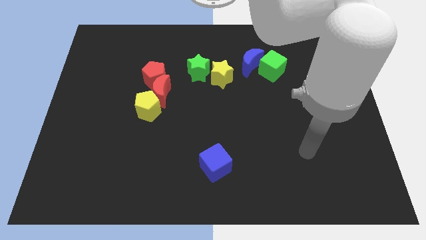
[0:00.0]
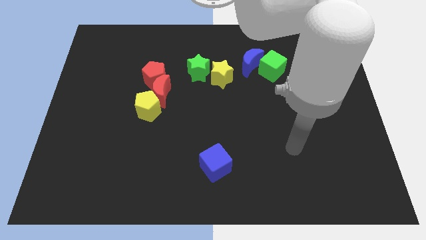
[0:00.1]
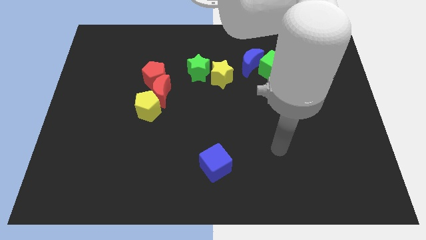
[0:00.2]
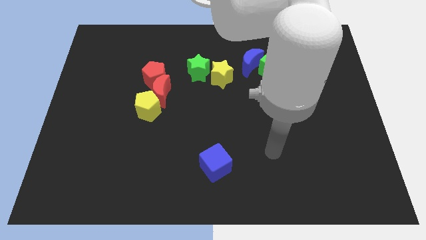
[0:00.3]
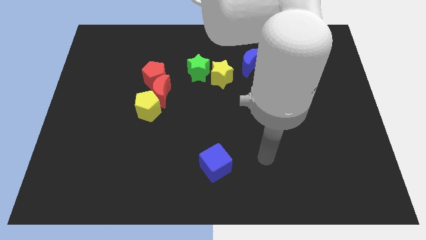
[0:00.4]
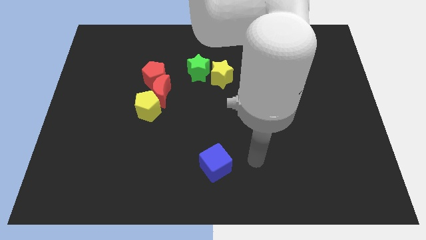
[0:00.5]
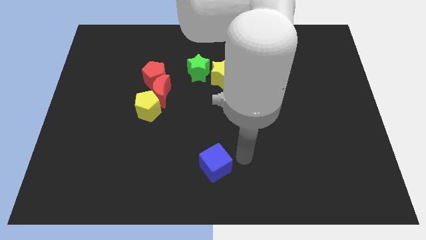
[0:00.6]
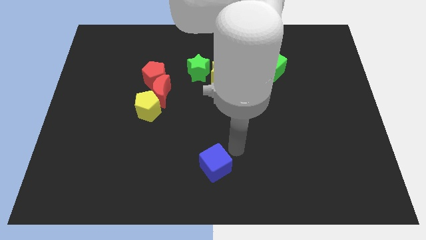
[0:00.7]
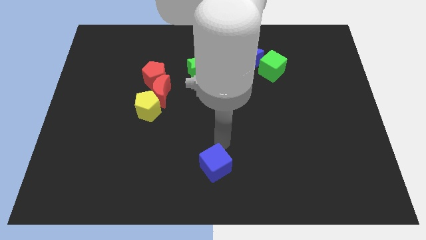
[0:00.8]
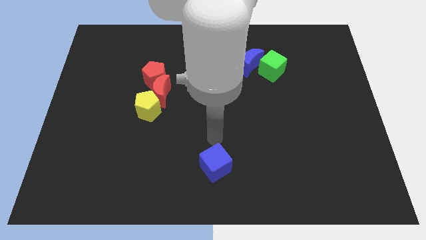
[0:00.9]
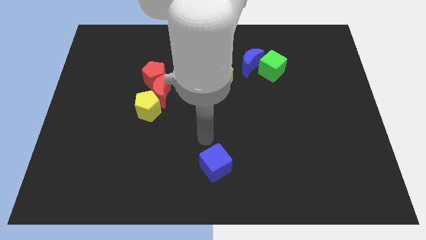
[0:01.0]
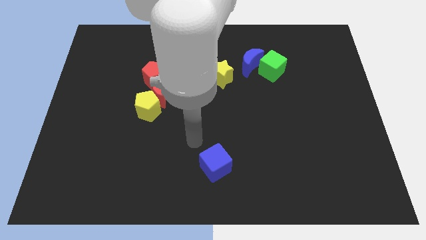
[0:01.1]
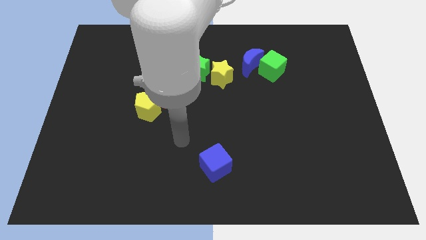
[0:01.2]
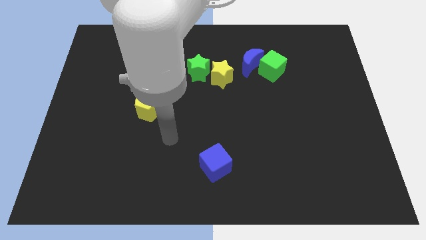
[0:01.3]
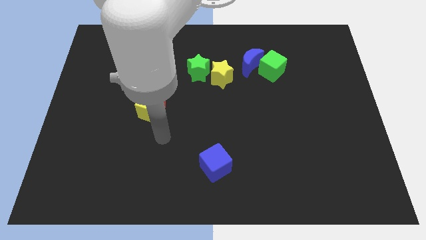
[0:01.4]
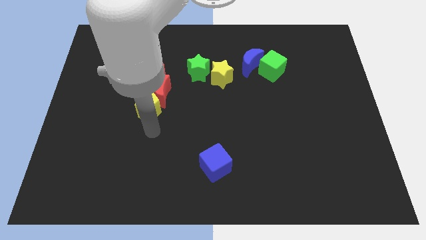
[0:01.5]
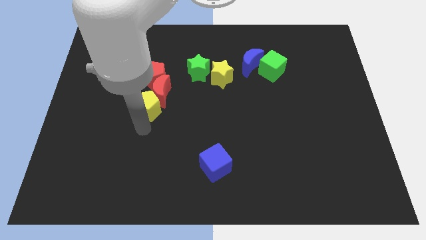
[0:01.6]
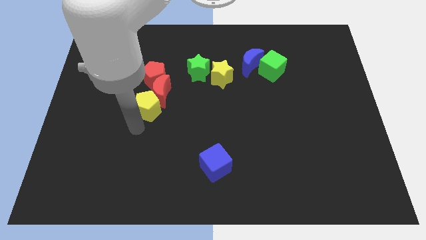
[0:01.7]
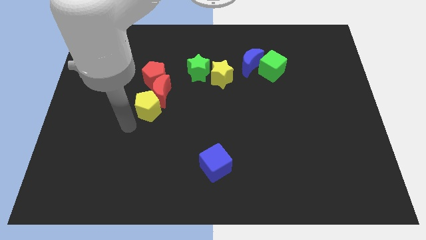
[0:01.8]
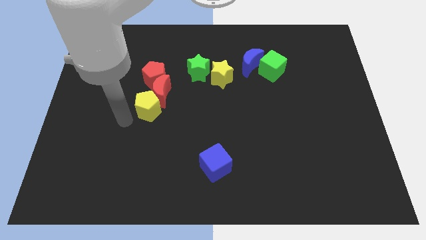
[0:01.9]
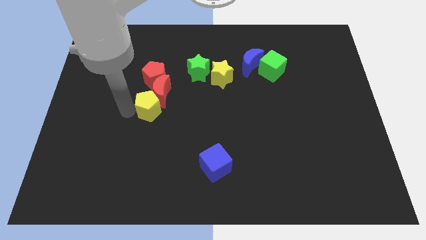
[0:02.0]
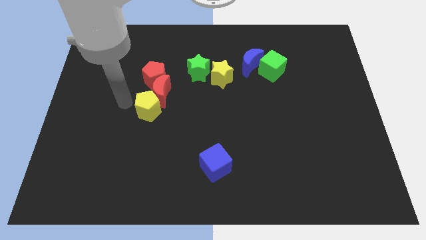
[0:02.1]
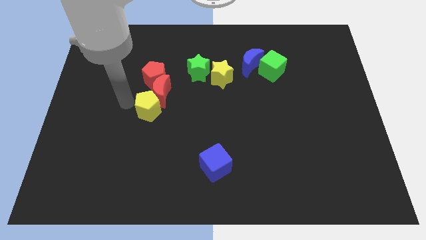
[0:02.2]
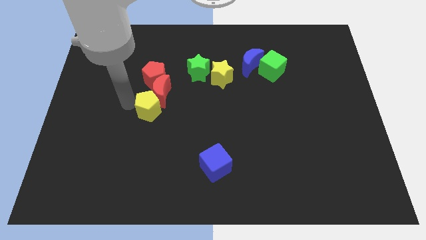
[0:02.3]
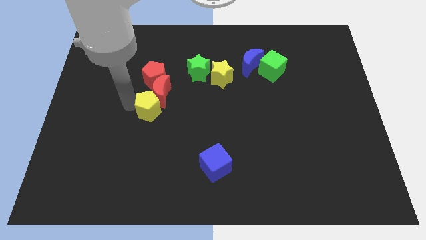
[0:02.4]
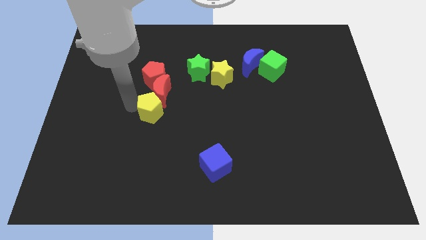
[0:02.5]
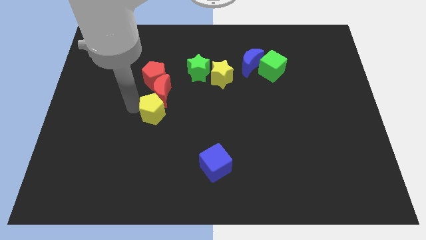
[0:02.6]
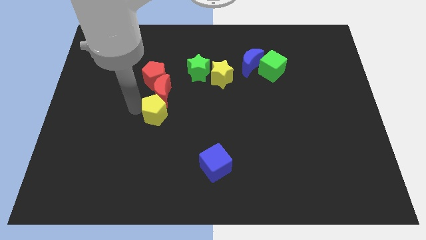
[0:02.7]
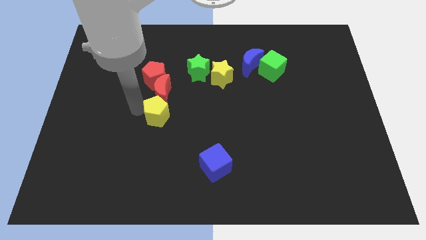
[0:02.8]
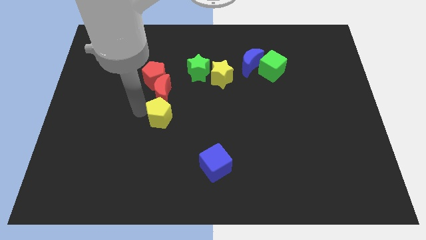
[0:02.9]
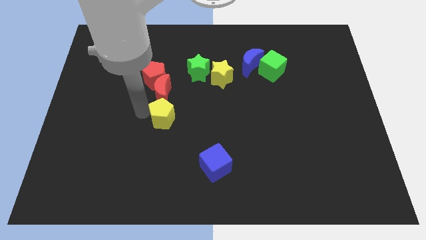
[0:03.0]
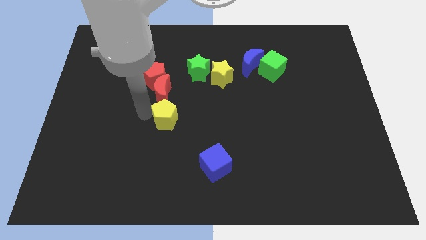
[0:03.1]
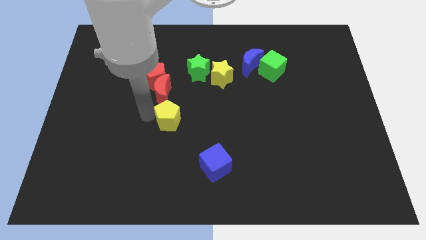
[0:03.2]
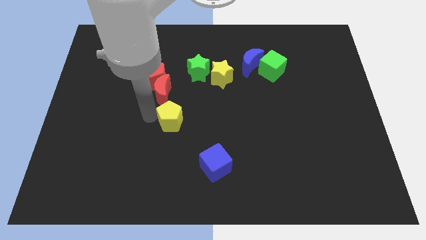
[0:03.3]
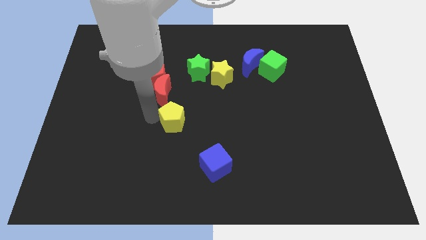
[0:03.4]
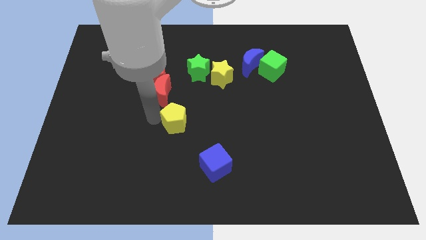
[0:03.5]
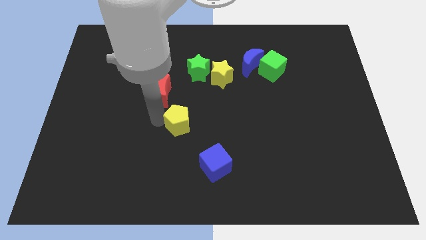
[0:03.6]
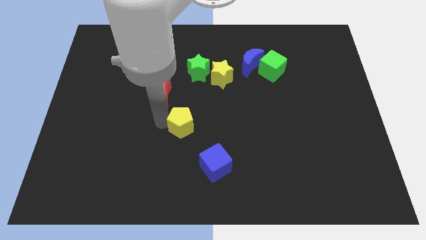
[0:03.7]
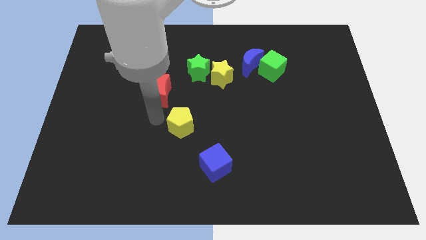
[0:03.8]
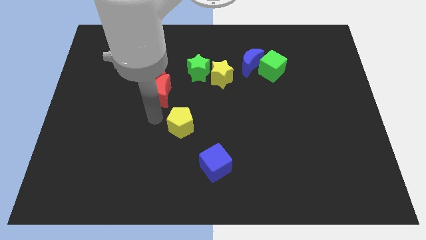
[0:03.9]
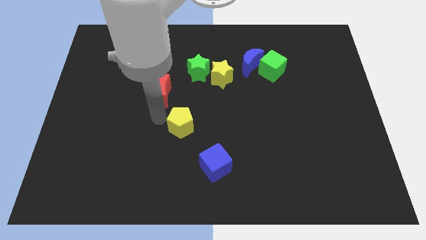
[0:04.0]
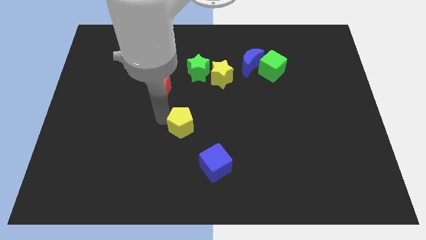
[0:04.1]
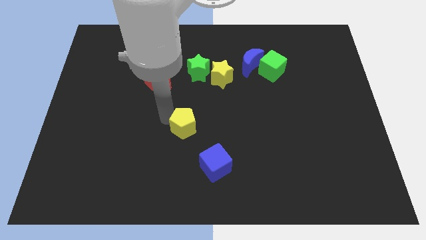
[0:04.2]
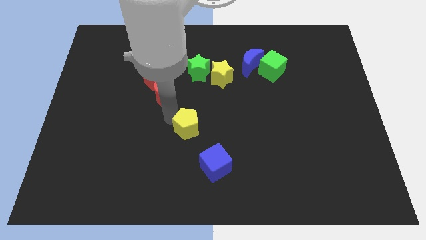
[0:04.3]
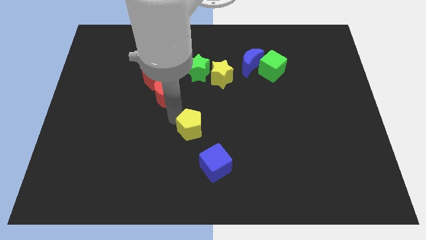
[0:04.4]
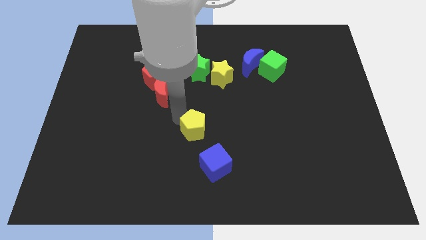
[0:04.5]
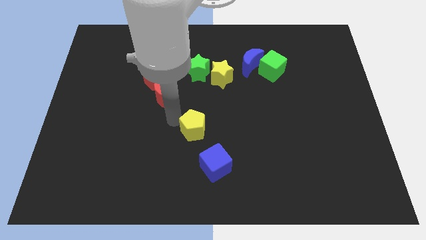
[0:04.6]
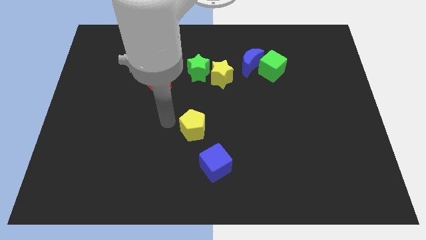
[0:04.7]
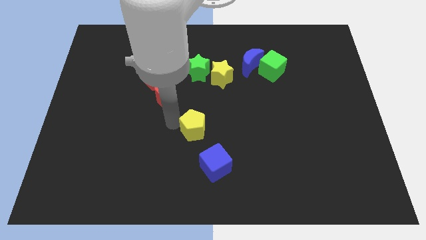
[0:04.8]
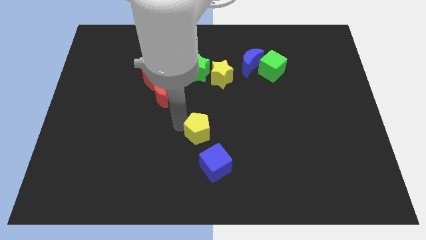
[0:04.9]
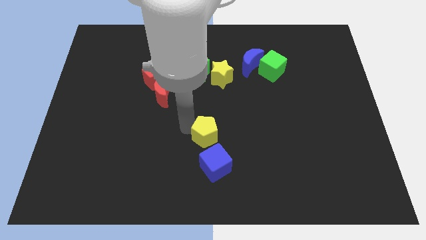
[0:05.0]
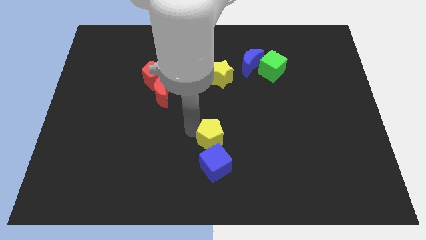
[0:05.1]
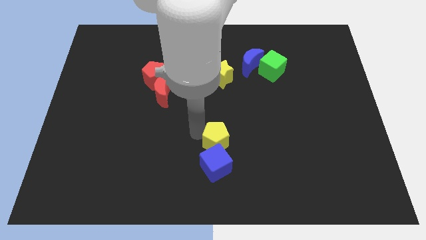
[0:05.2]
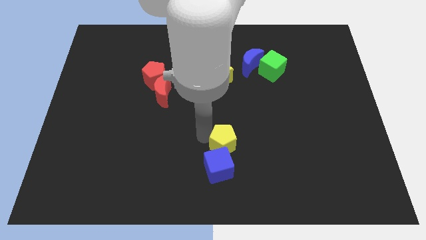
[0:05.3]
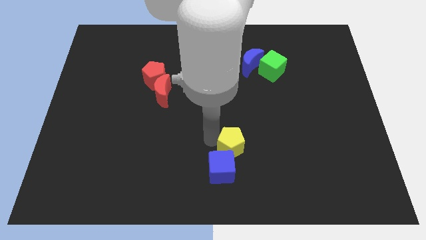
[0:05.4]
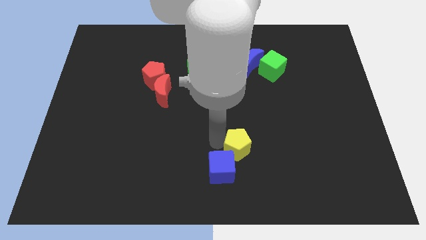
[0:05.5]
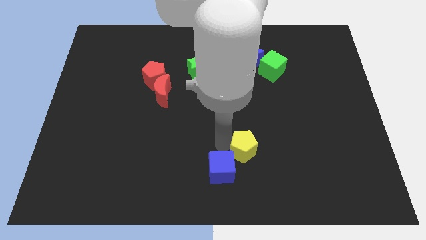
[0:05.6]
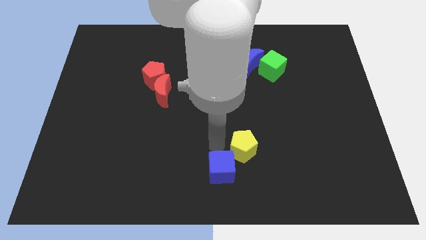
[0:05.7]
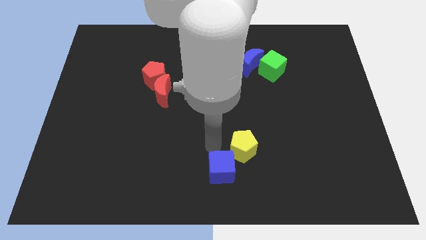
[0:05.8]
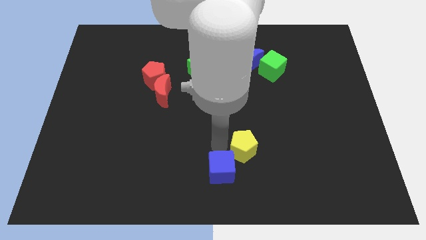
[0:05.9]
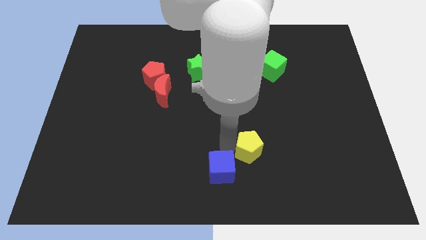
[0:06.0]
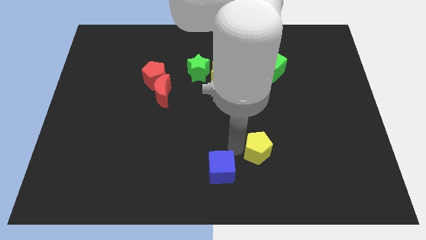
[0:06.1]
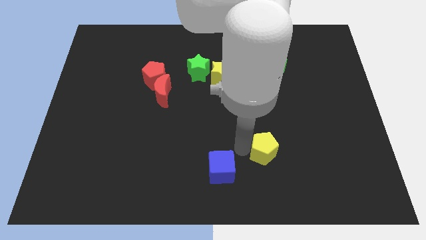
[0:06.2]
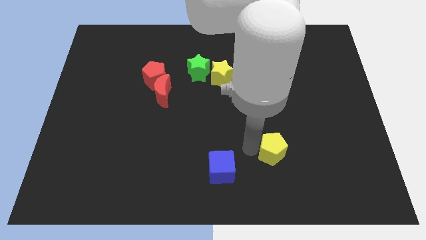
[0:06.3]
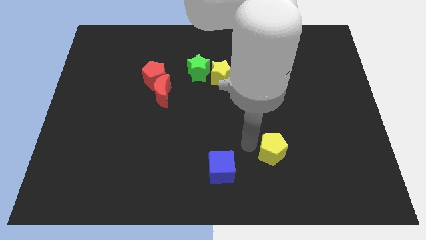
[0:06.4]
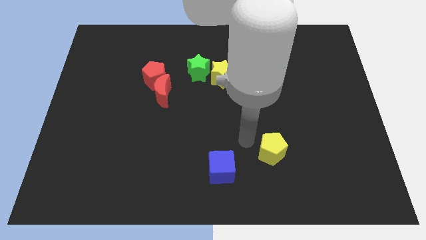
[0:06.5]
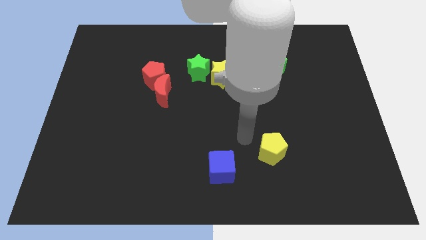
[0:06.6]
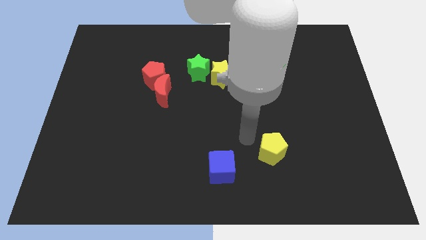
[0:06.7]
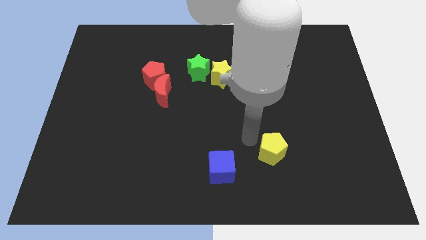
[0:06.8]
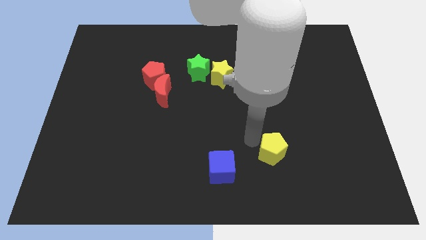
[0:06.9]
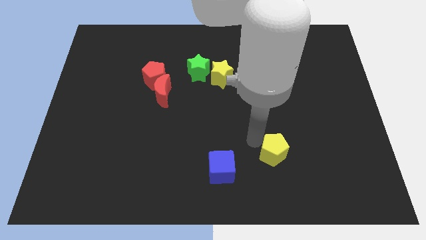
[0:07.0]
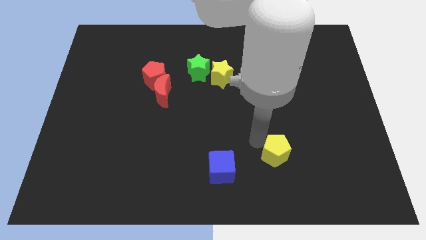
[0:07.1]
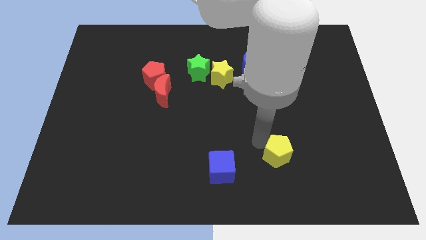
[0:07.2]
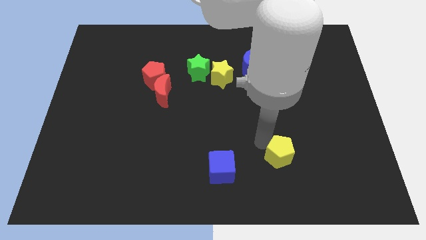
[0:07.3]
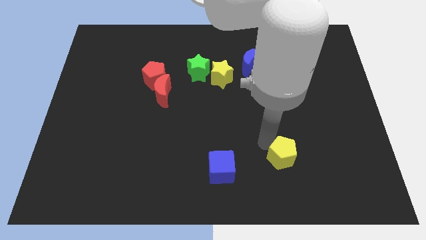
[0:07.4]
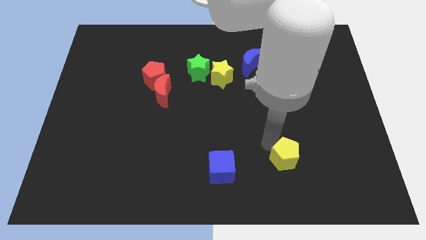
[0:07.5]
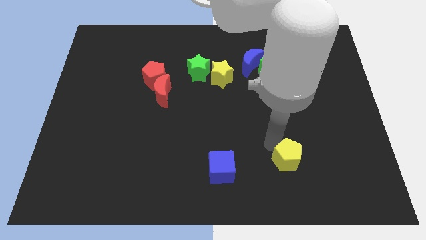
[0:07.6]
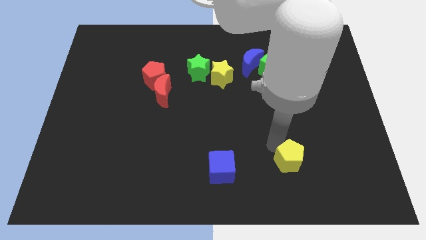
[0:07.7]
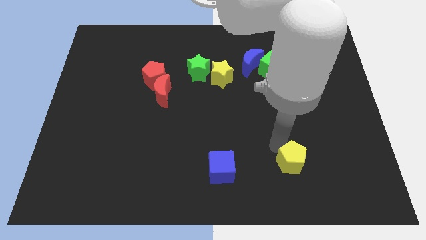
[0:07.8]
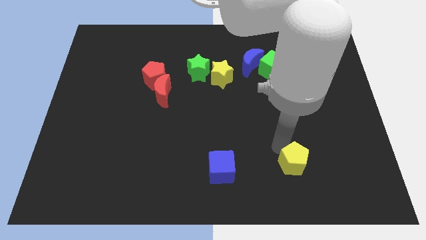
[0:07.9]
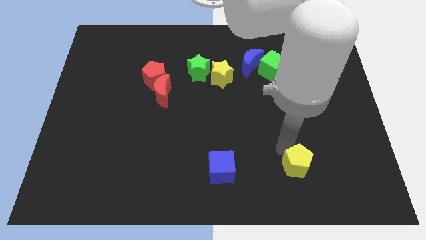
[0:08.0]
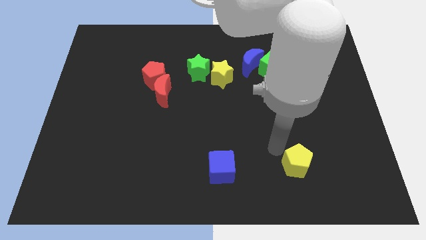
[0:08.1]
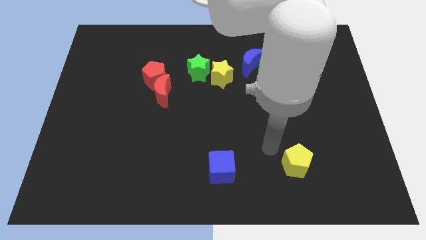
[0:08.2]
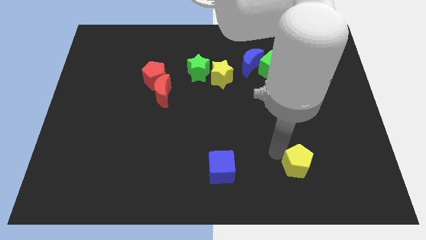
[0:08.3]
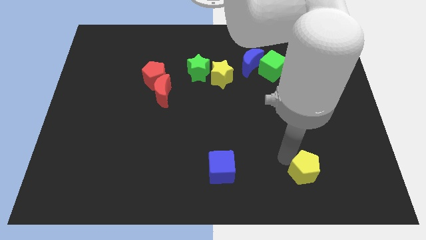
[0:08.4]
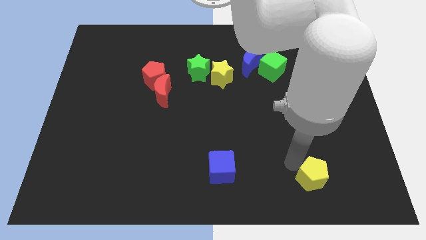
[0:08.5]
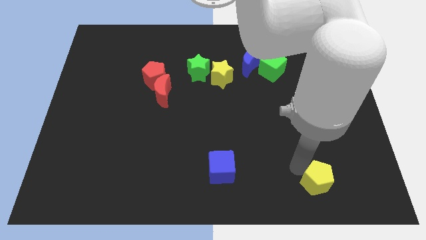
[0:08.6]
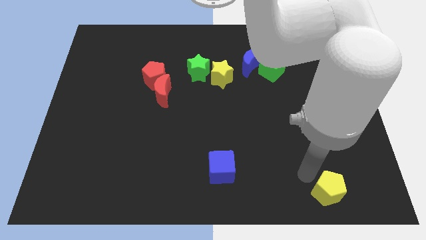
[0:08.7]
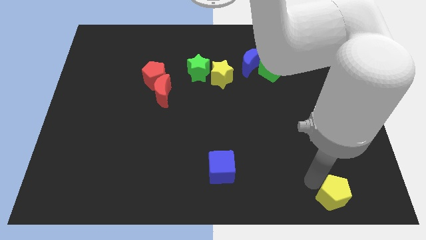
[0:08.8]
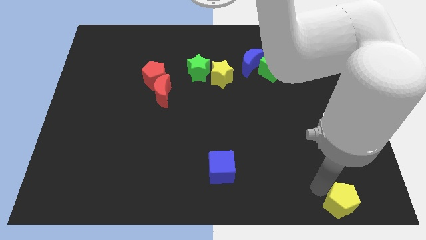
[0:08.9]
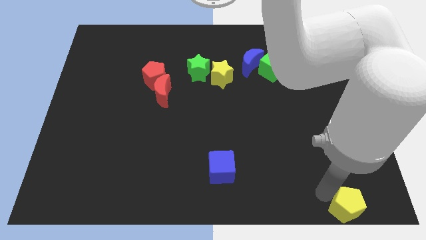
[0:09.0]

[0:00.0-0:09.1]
put the yellow pentagon to the bottom right
